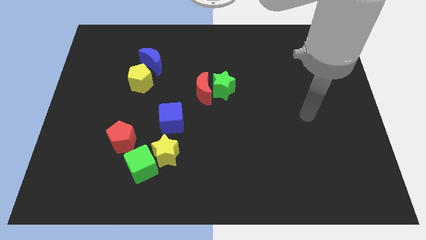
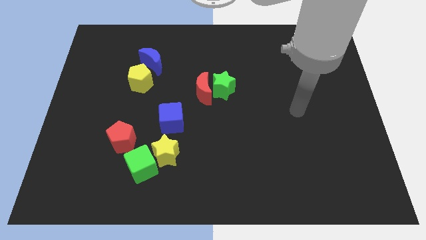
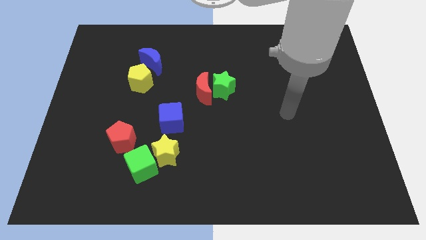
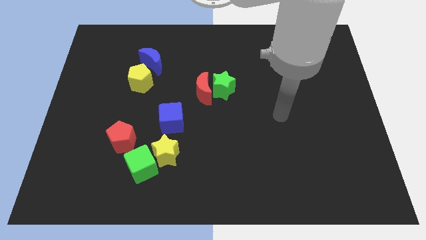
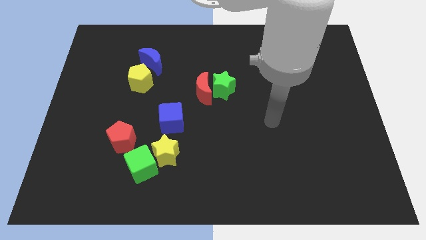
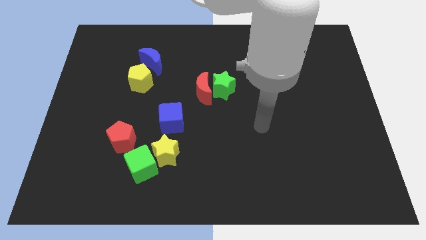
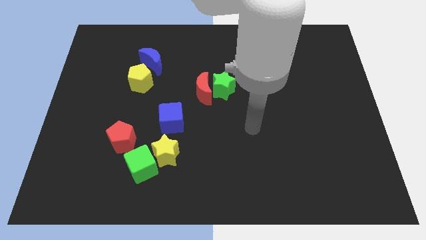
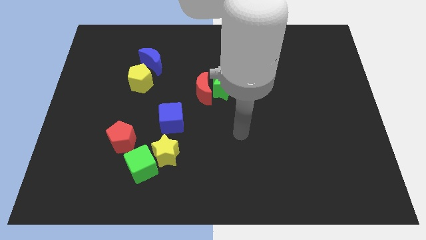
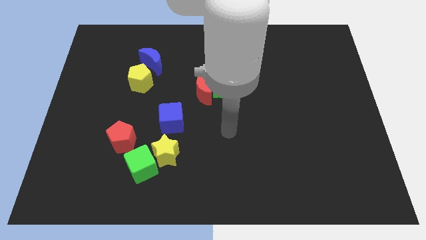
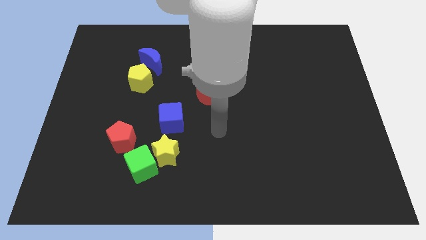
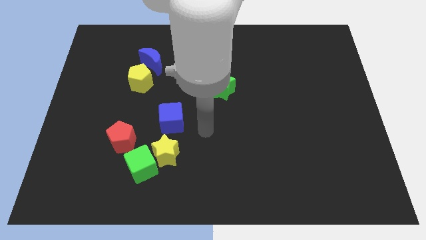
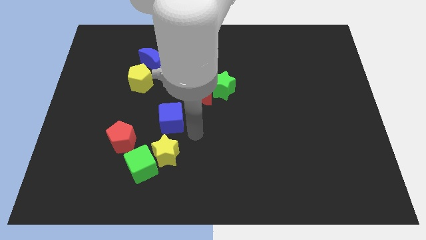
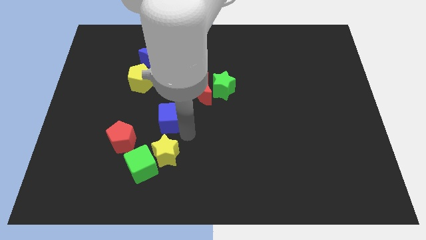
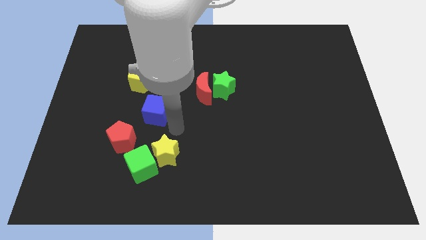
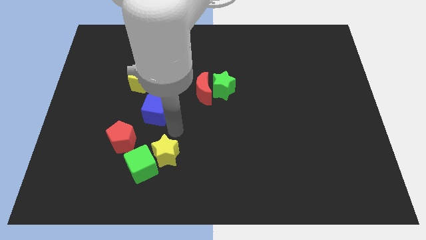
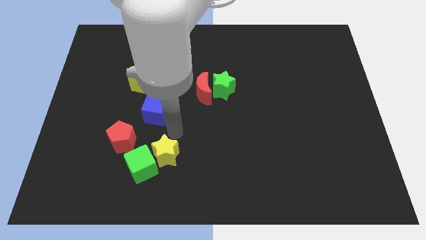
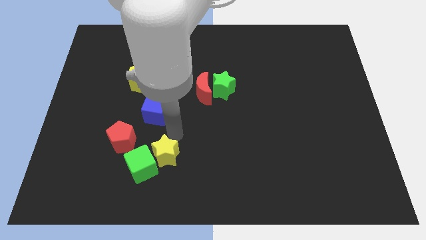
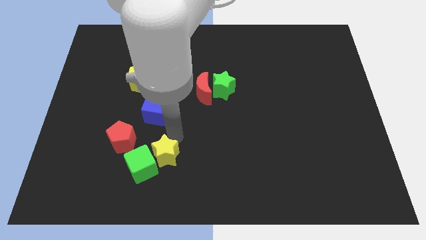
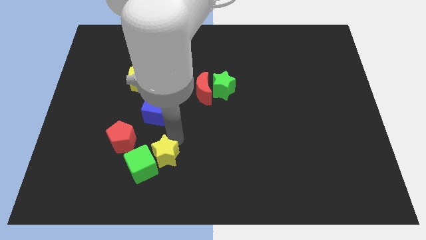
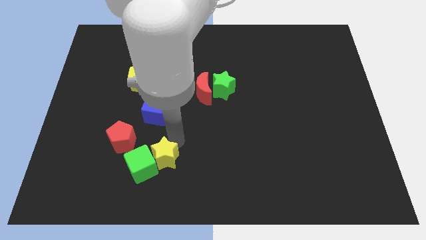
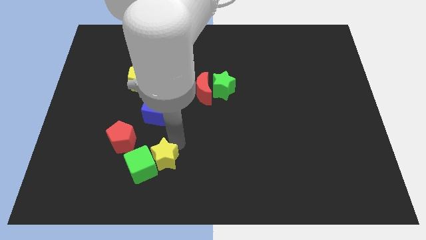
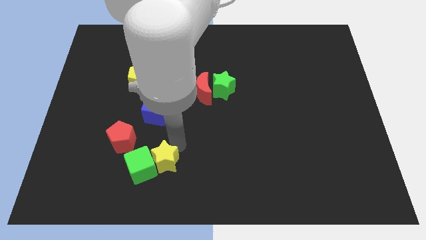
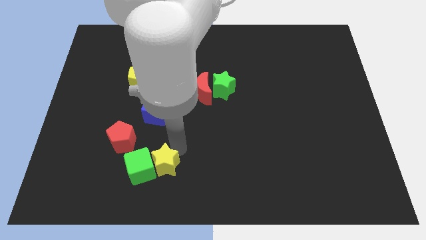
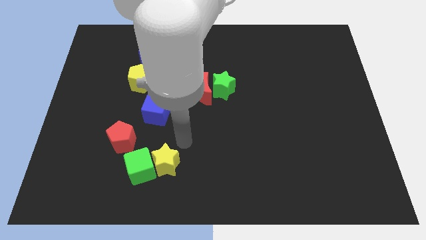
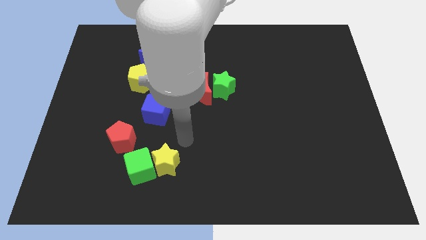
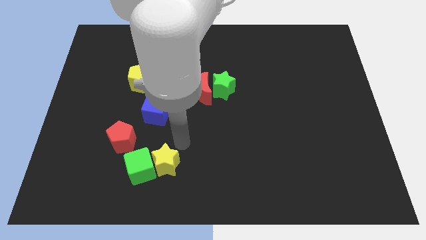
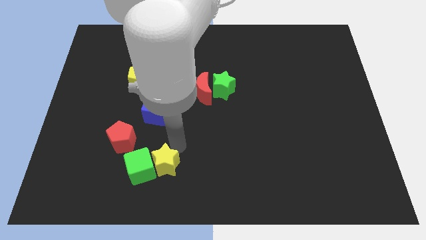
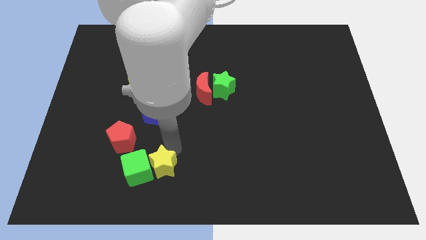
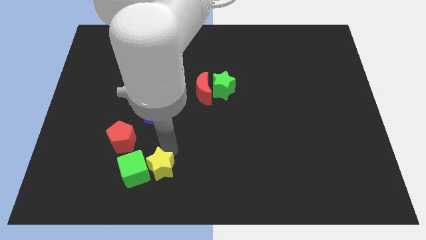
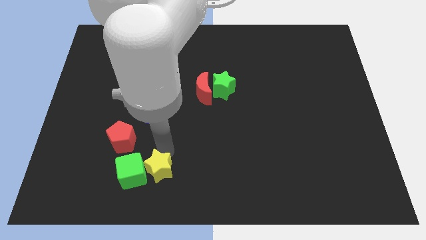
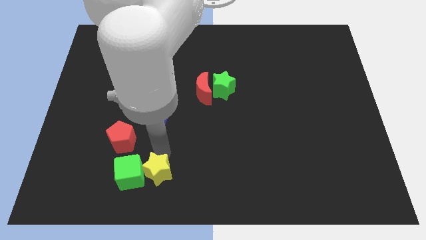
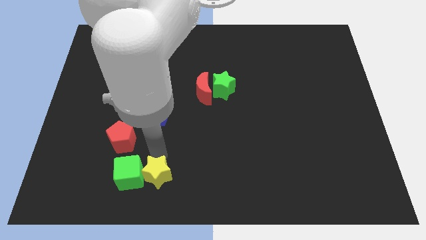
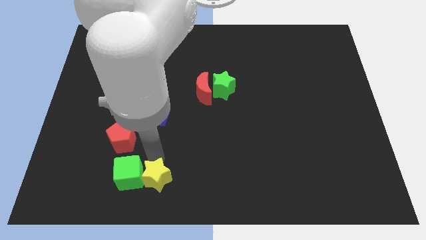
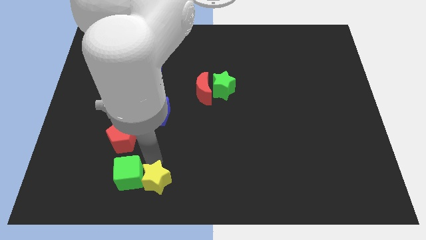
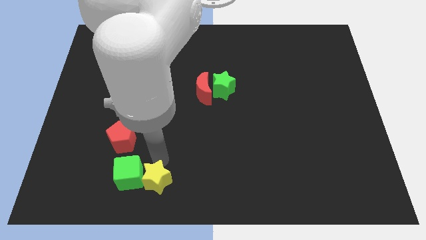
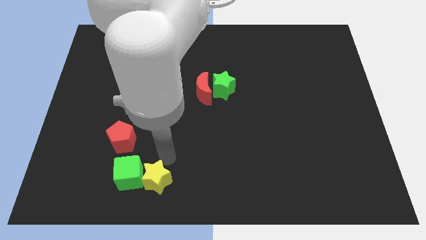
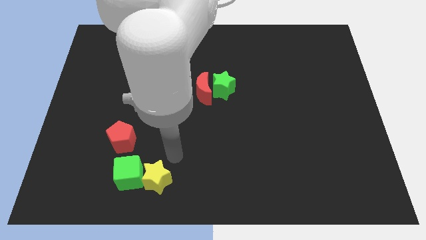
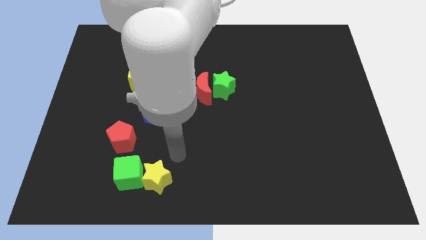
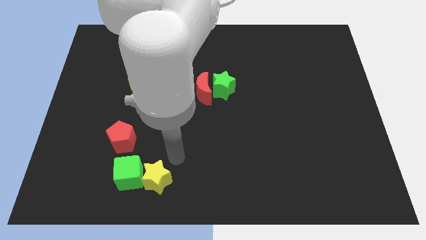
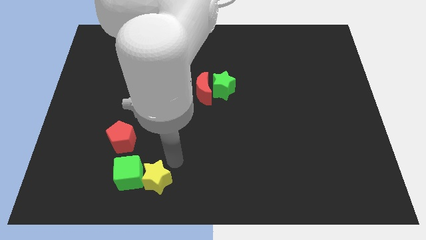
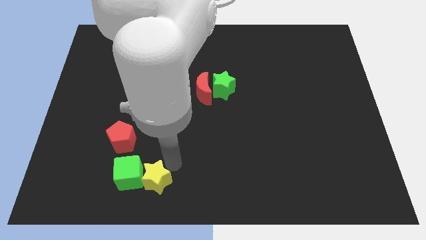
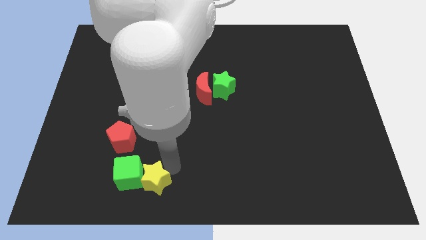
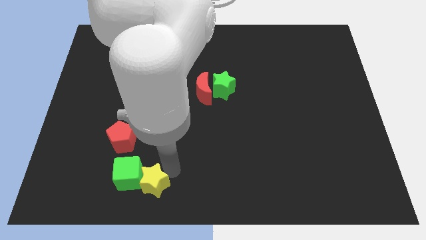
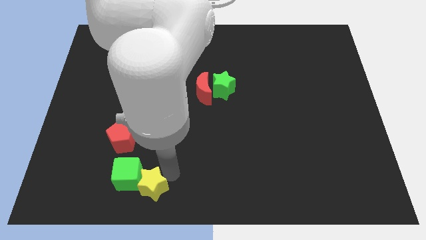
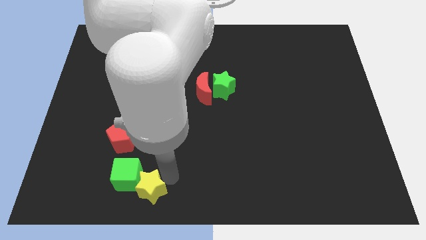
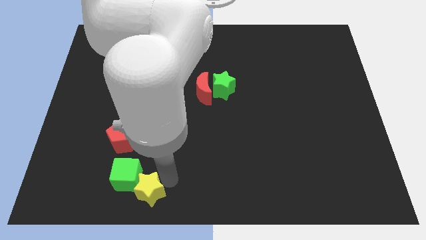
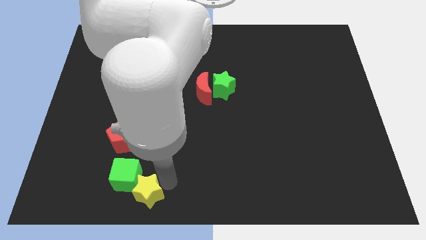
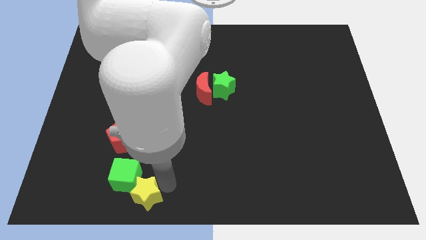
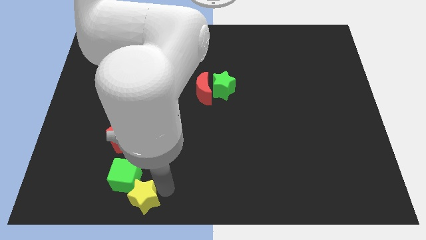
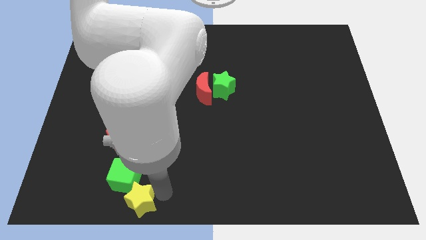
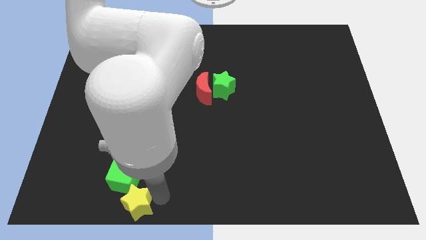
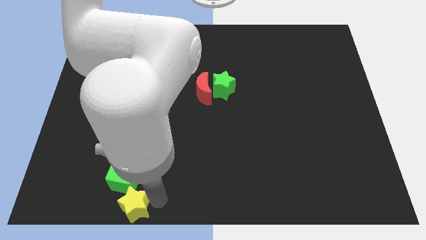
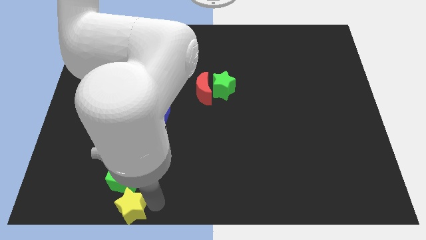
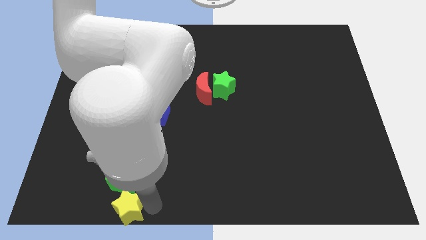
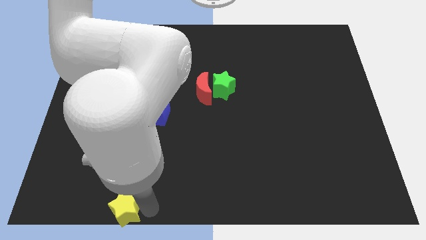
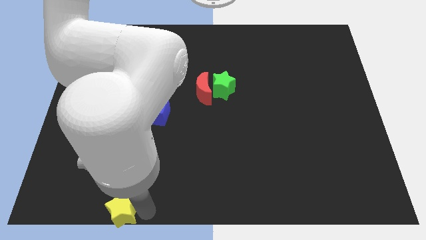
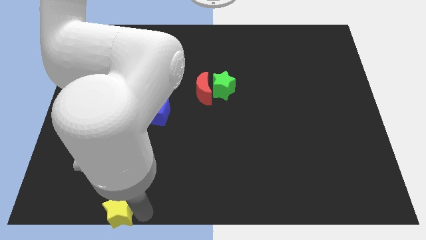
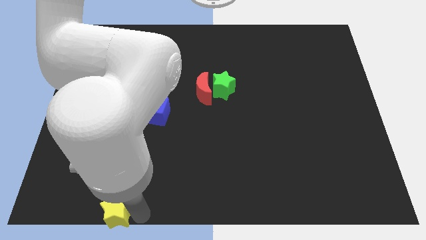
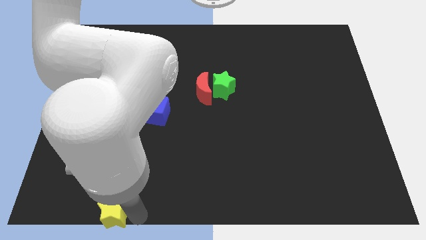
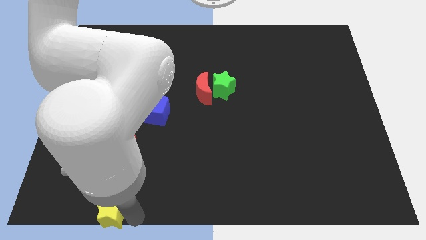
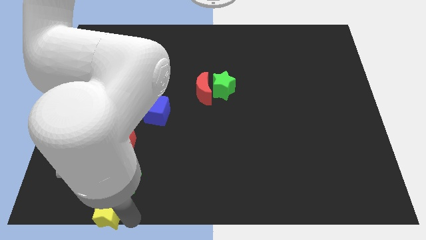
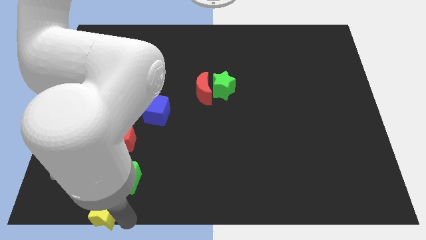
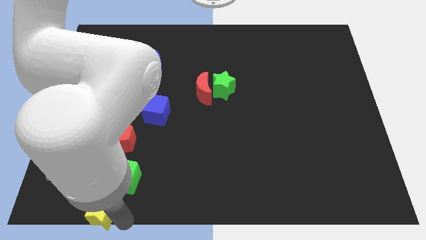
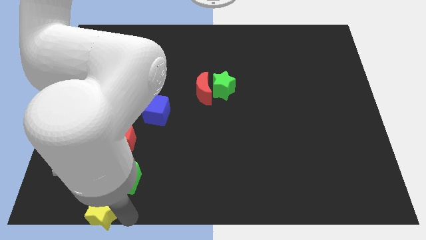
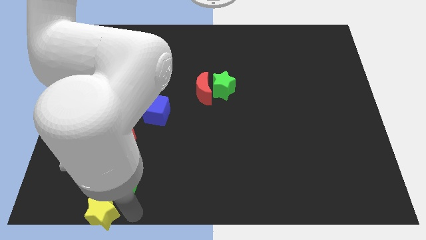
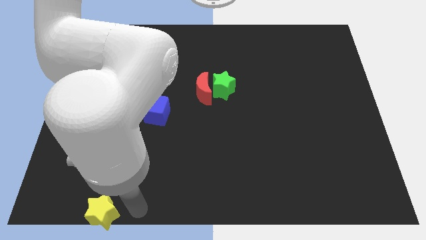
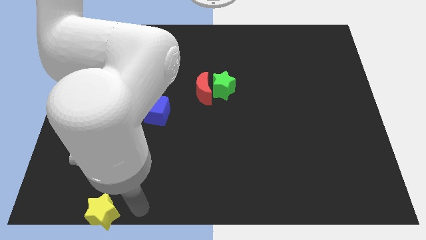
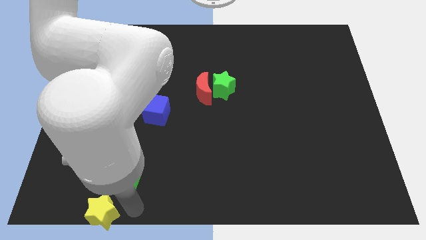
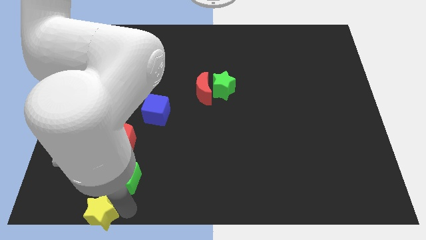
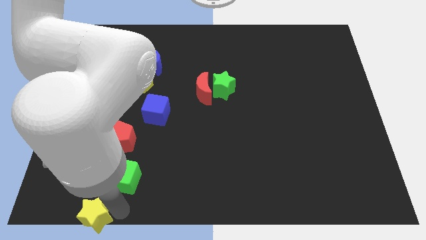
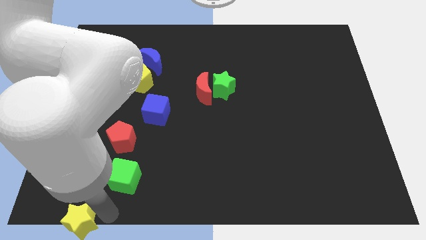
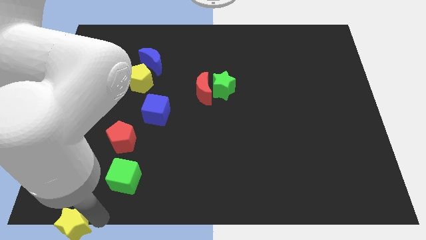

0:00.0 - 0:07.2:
move the yellow star to the bottom left of the board
